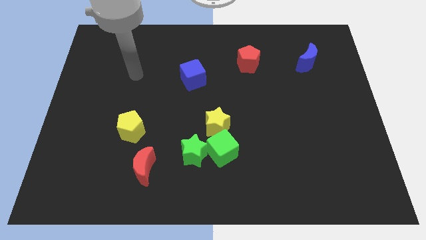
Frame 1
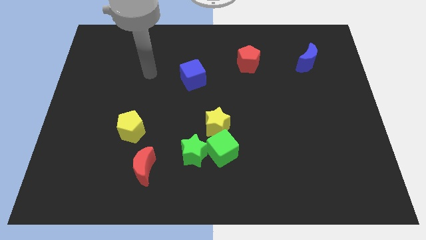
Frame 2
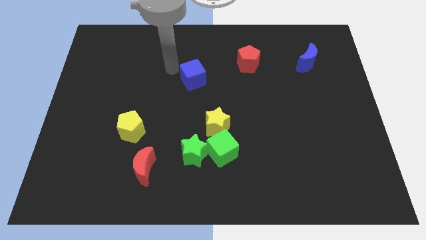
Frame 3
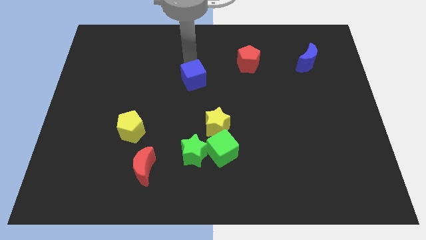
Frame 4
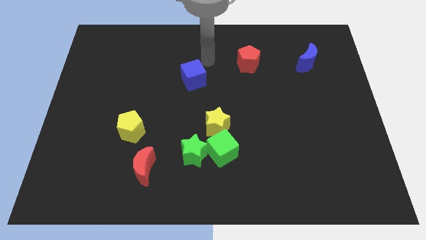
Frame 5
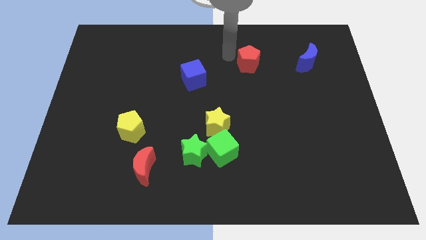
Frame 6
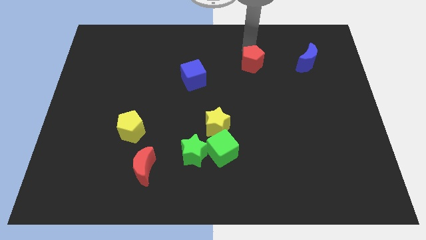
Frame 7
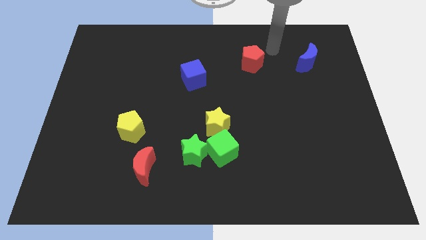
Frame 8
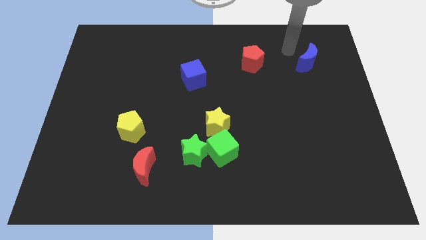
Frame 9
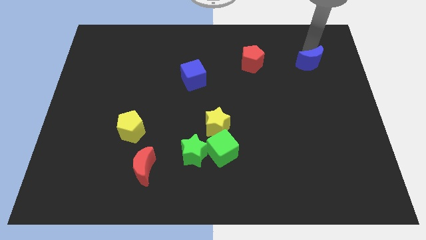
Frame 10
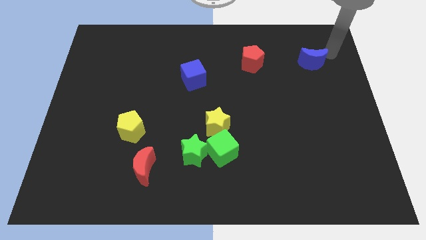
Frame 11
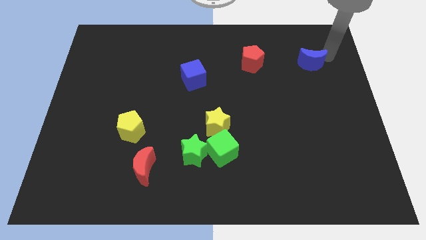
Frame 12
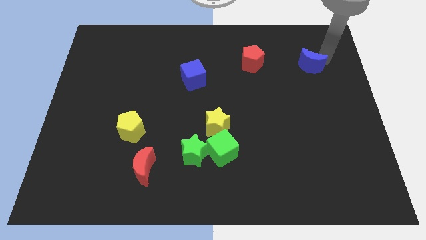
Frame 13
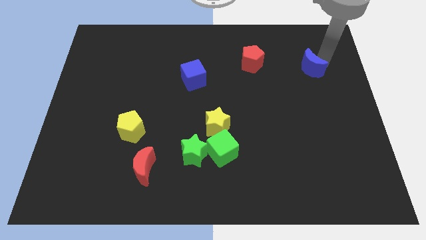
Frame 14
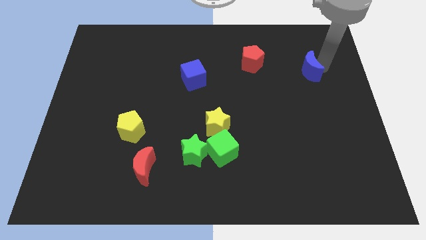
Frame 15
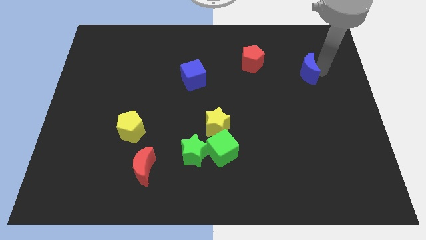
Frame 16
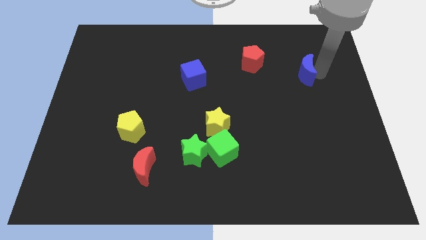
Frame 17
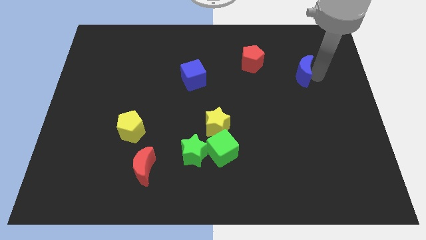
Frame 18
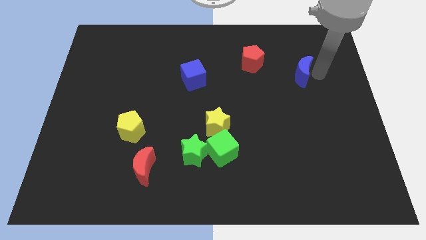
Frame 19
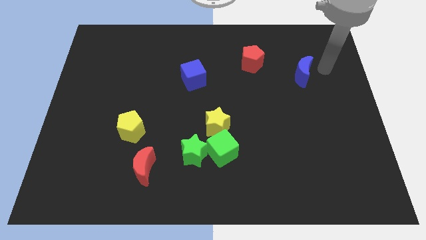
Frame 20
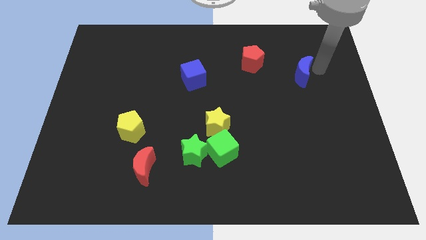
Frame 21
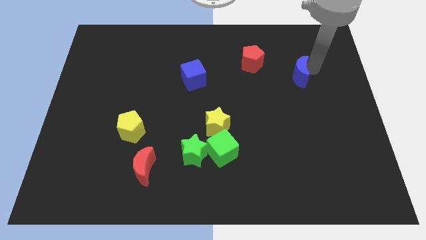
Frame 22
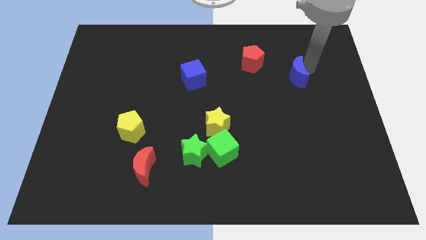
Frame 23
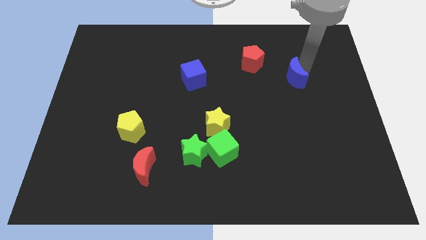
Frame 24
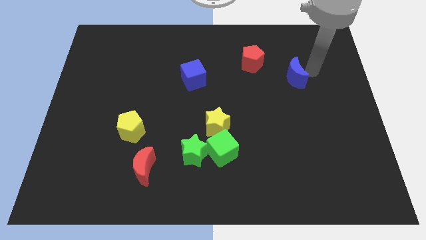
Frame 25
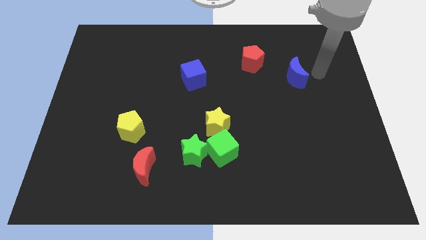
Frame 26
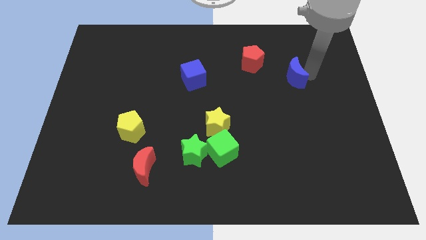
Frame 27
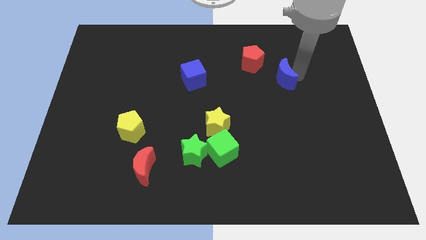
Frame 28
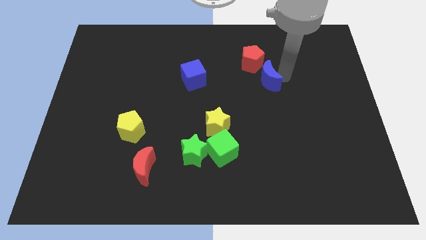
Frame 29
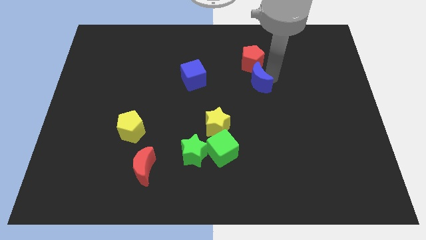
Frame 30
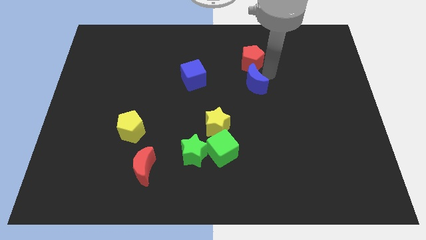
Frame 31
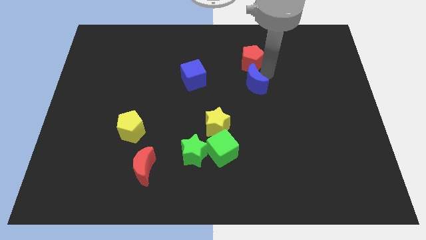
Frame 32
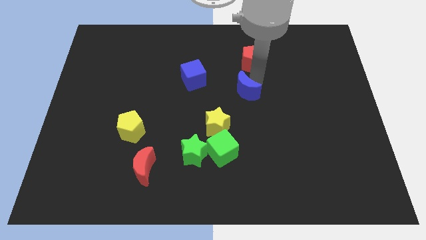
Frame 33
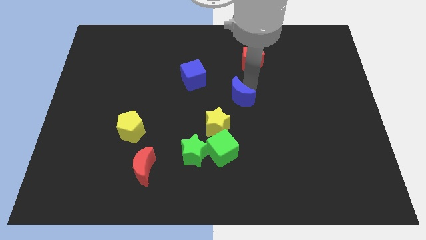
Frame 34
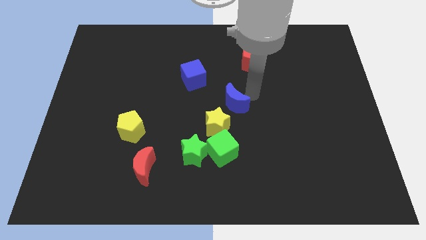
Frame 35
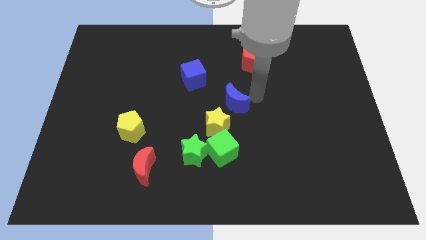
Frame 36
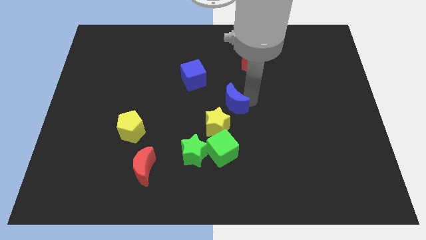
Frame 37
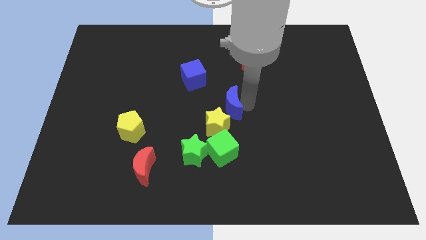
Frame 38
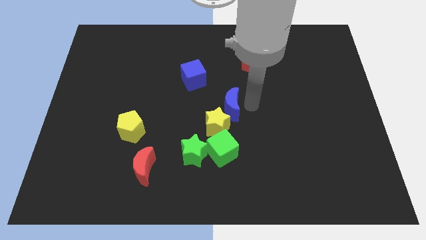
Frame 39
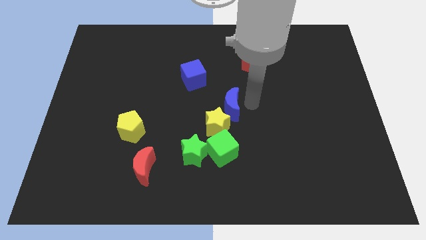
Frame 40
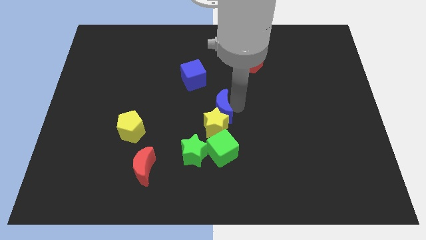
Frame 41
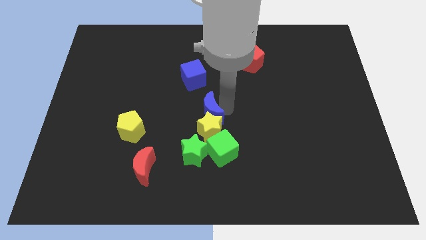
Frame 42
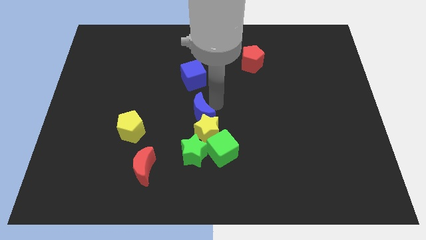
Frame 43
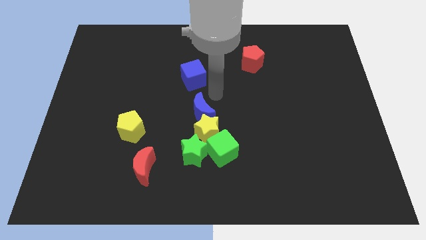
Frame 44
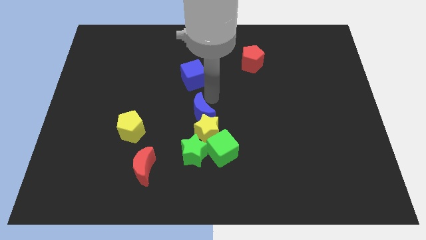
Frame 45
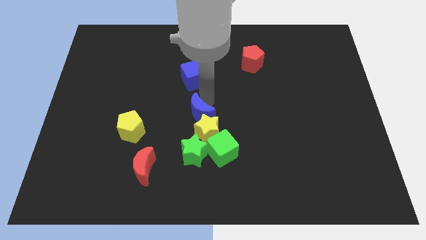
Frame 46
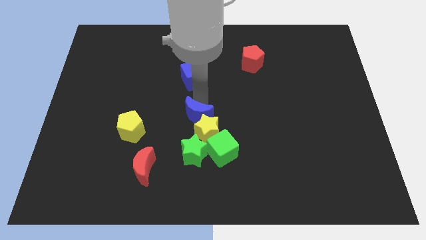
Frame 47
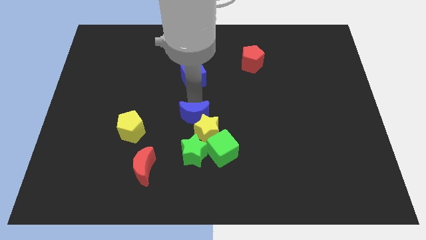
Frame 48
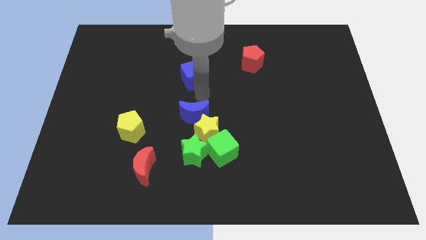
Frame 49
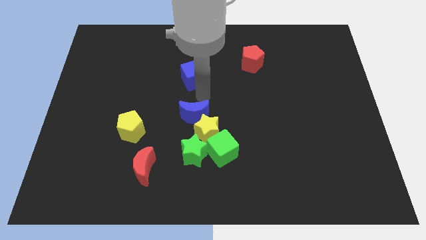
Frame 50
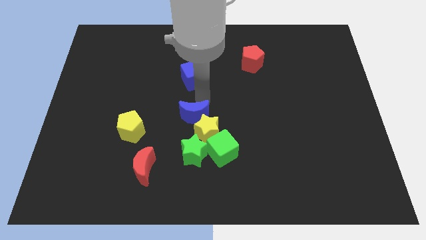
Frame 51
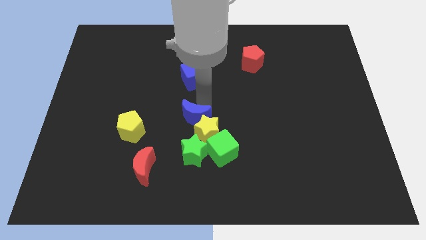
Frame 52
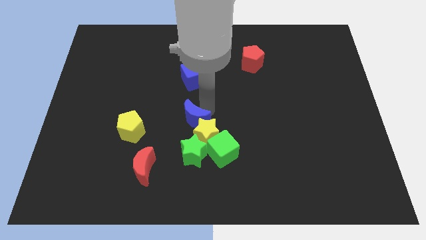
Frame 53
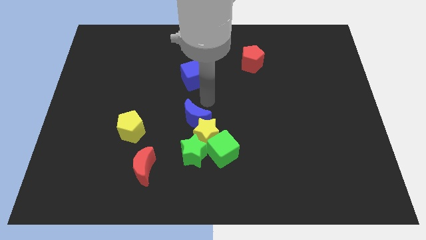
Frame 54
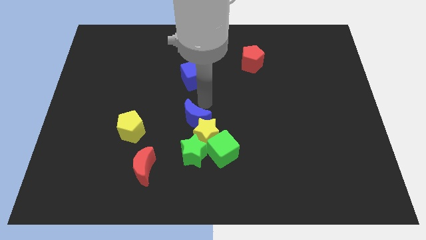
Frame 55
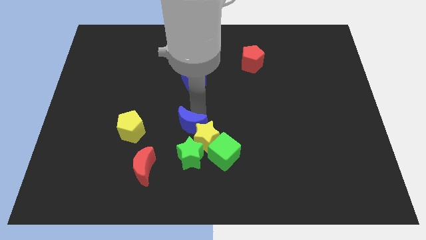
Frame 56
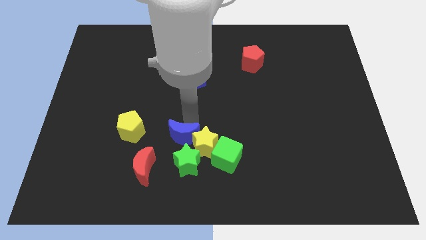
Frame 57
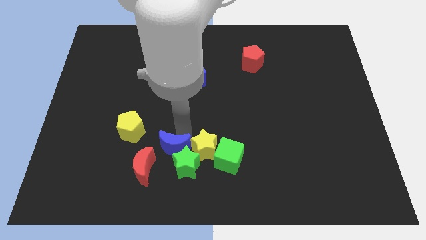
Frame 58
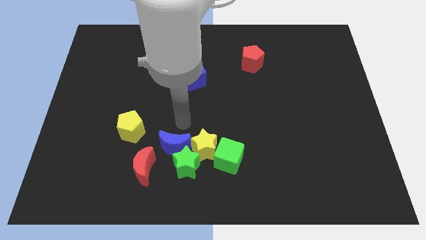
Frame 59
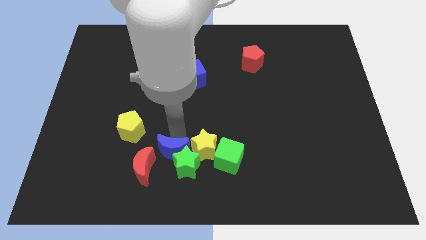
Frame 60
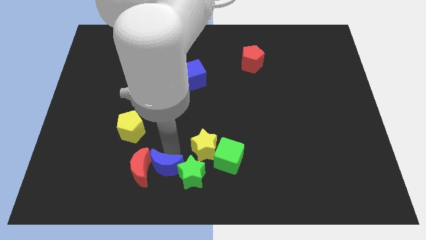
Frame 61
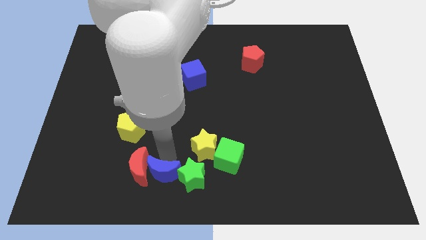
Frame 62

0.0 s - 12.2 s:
put the blue moon diagonally down and to the left of the green star
